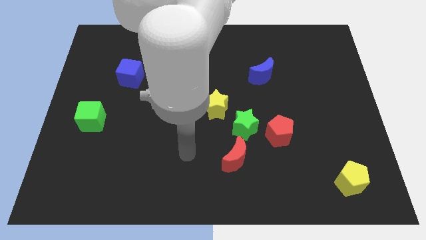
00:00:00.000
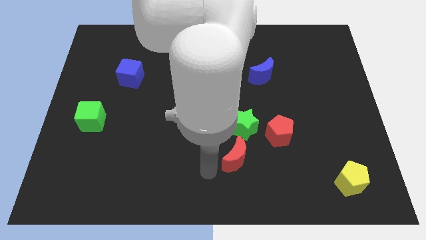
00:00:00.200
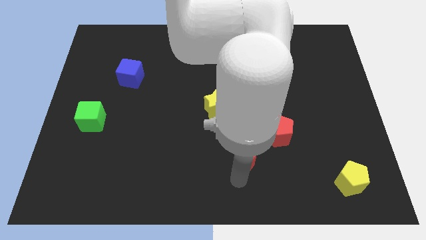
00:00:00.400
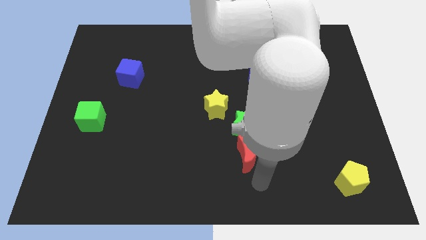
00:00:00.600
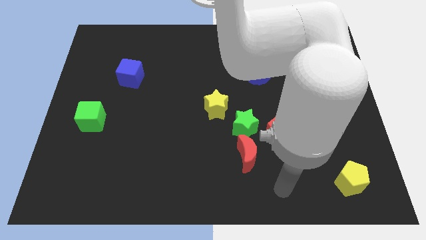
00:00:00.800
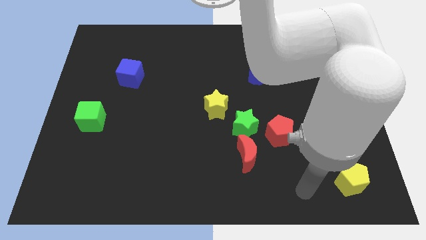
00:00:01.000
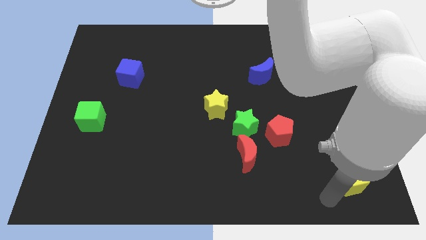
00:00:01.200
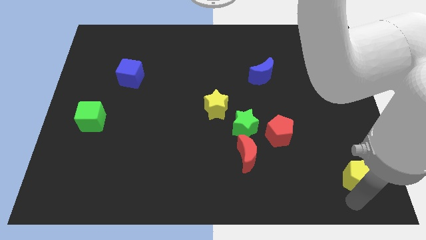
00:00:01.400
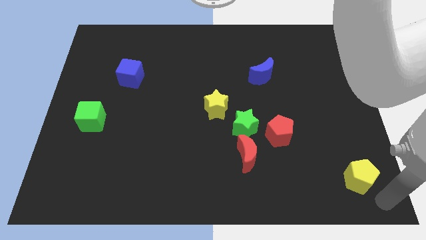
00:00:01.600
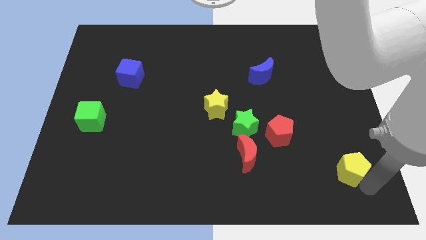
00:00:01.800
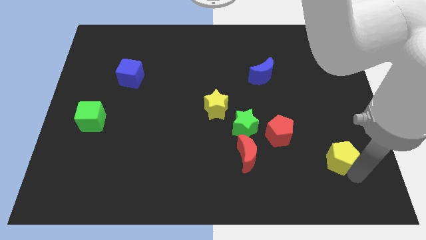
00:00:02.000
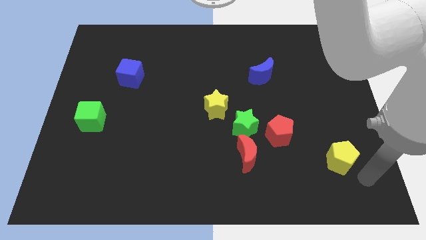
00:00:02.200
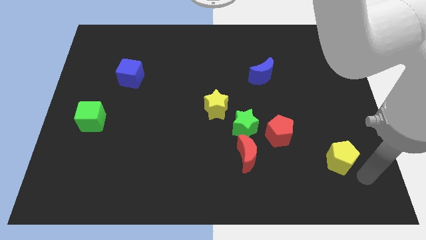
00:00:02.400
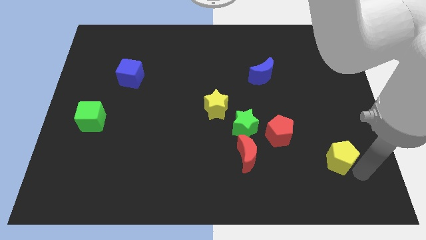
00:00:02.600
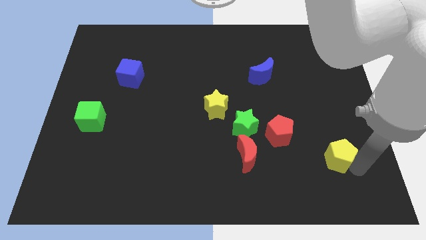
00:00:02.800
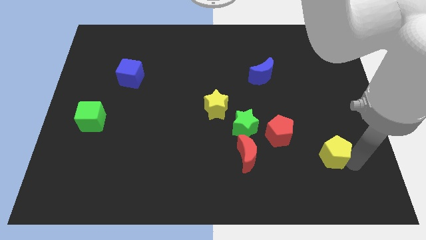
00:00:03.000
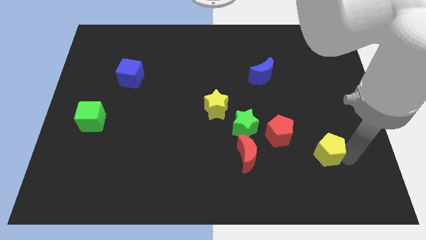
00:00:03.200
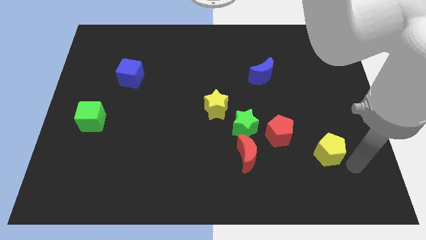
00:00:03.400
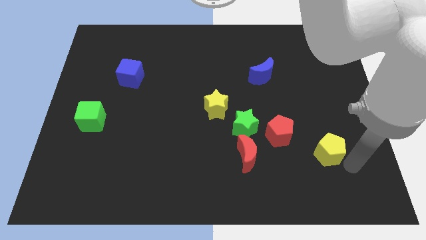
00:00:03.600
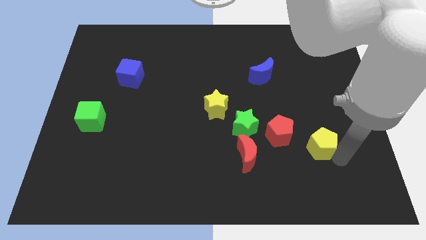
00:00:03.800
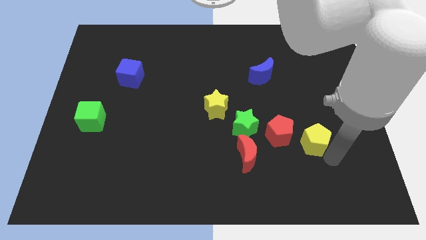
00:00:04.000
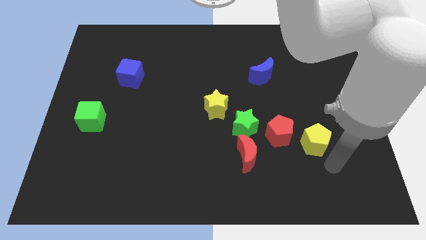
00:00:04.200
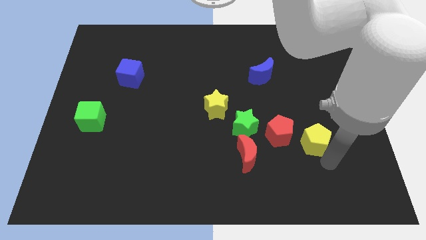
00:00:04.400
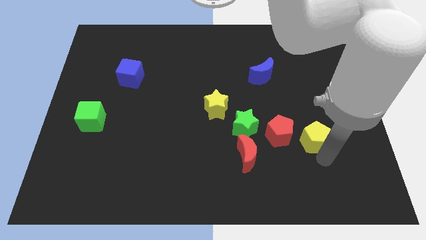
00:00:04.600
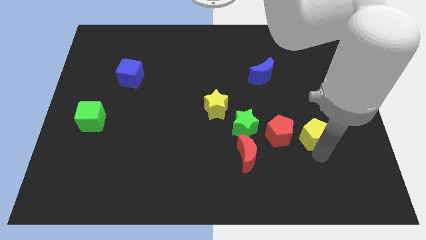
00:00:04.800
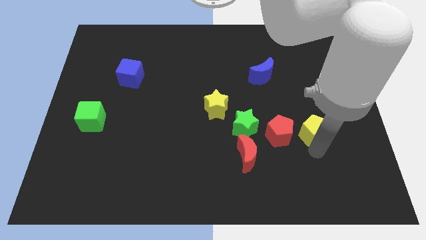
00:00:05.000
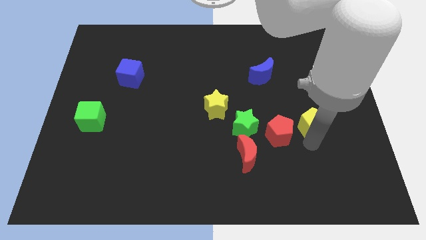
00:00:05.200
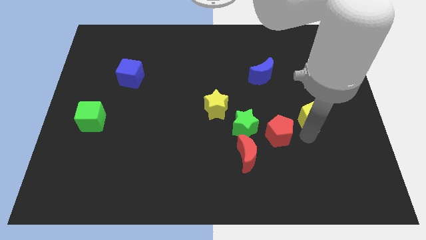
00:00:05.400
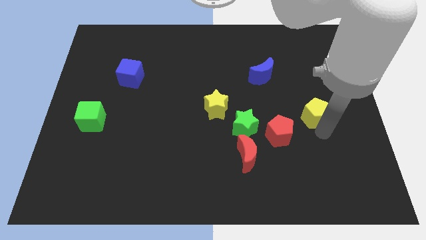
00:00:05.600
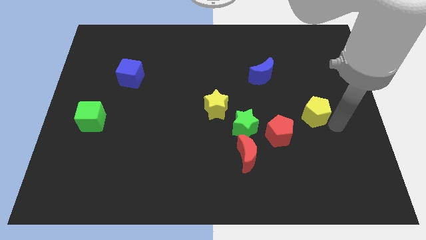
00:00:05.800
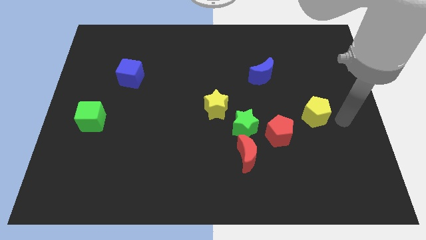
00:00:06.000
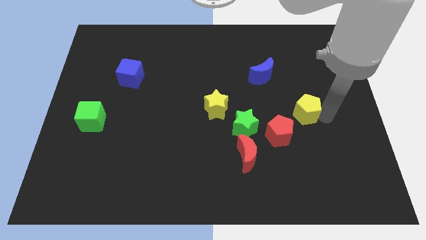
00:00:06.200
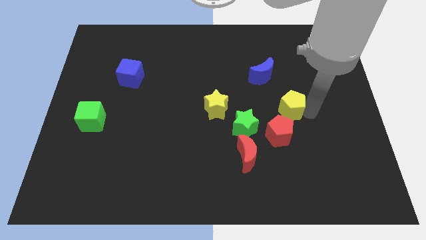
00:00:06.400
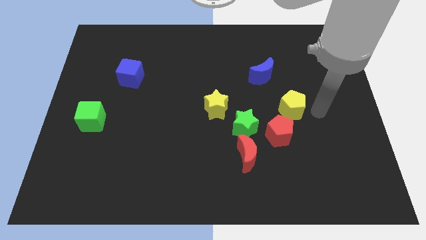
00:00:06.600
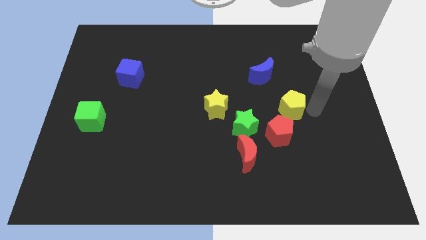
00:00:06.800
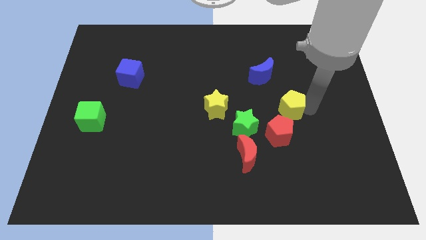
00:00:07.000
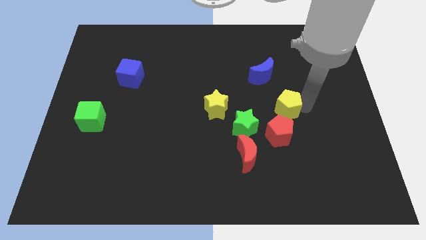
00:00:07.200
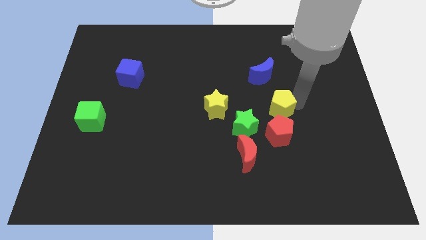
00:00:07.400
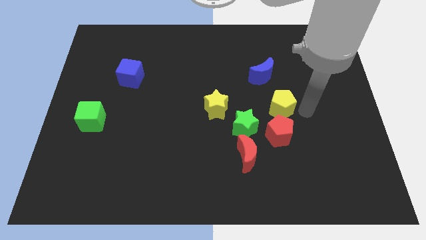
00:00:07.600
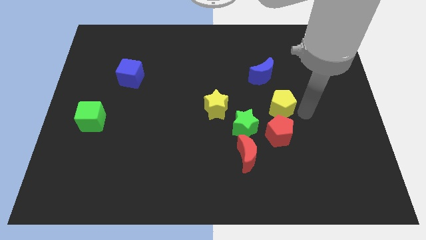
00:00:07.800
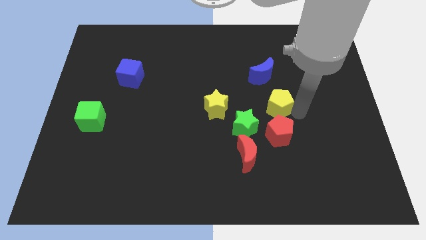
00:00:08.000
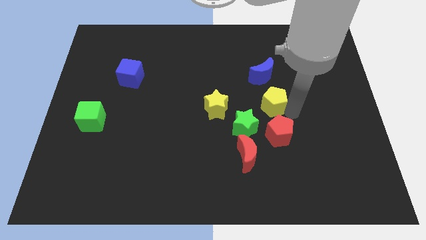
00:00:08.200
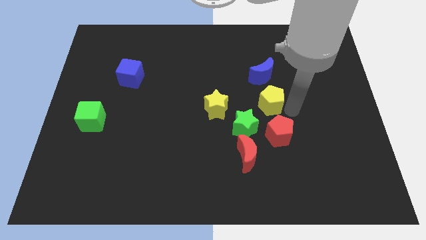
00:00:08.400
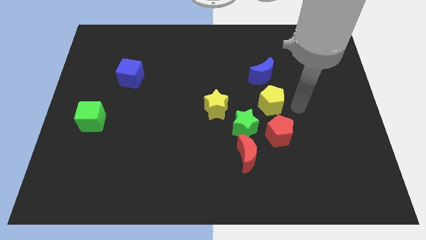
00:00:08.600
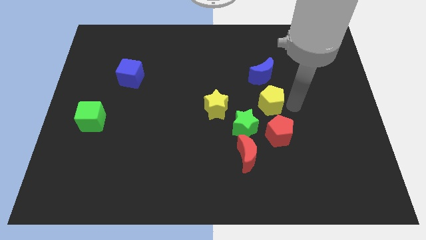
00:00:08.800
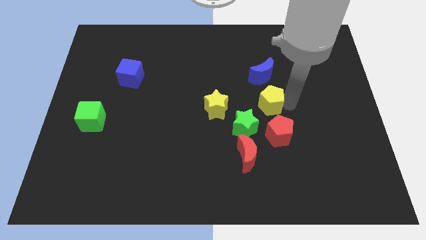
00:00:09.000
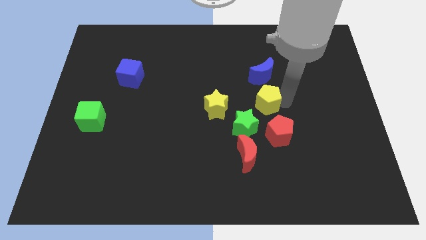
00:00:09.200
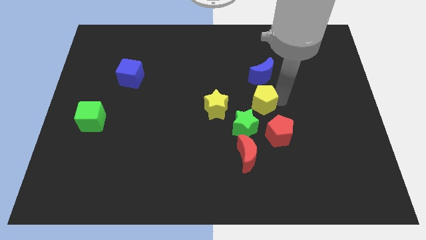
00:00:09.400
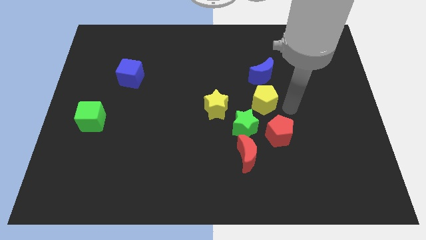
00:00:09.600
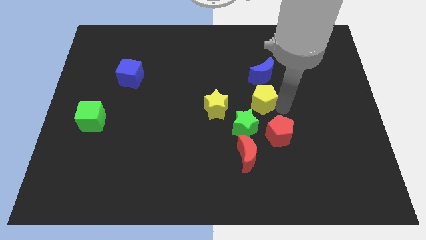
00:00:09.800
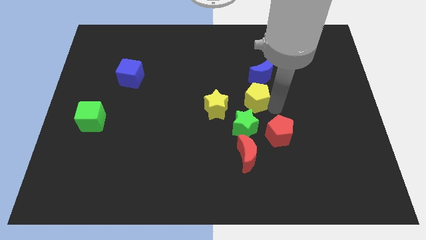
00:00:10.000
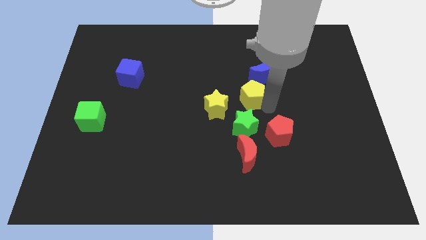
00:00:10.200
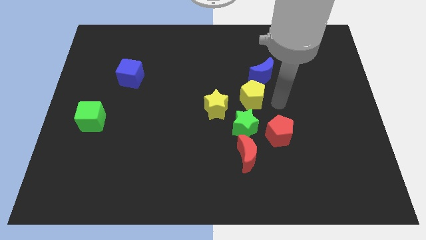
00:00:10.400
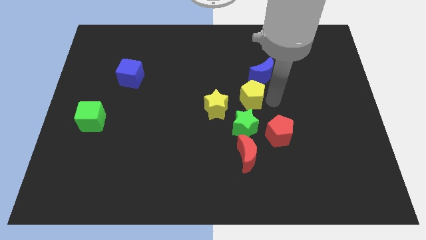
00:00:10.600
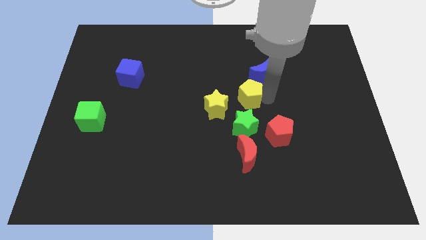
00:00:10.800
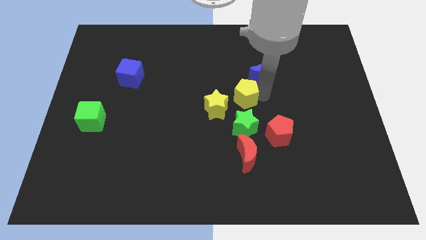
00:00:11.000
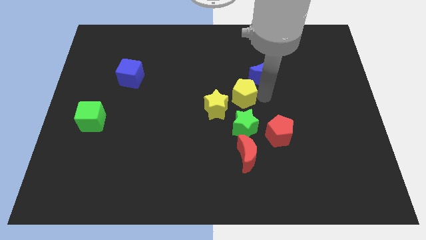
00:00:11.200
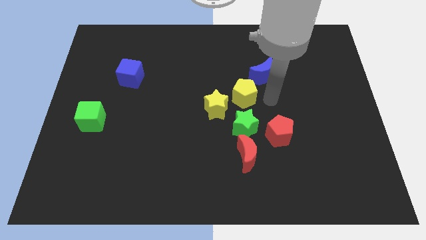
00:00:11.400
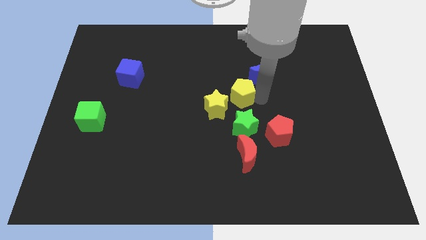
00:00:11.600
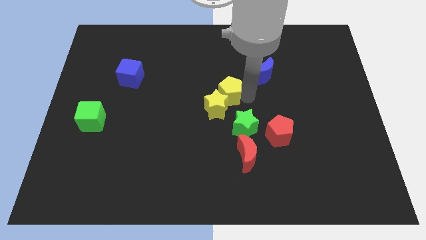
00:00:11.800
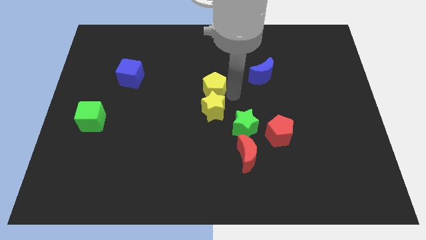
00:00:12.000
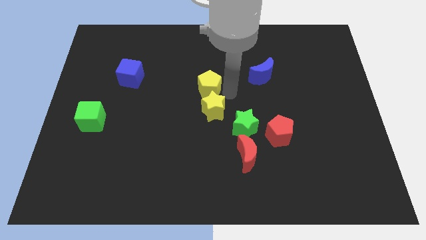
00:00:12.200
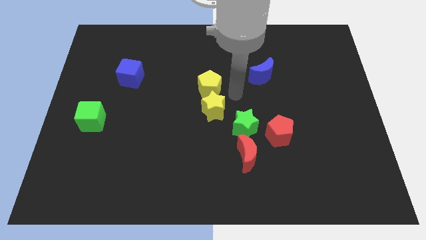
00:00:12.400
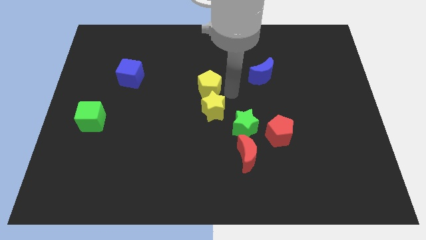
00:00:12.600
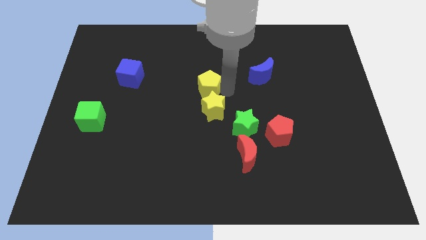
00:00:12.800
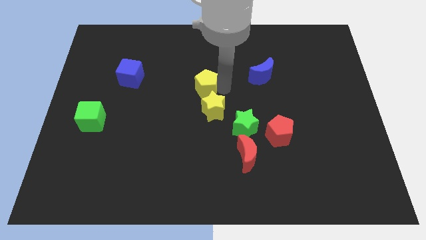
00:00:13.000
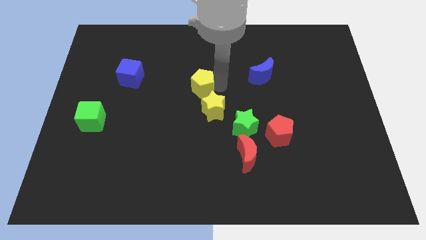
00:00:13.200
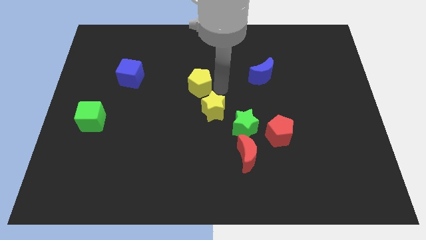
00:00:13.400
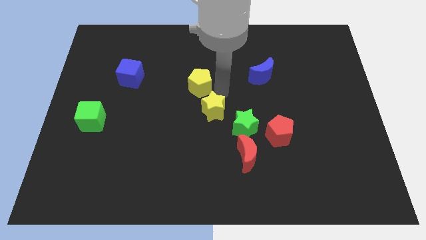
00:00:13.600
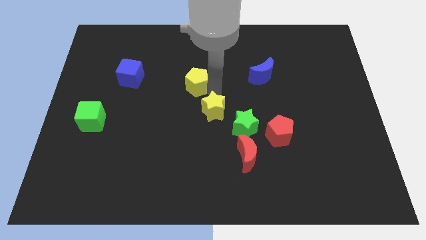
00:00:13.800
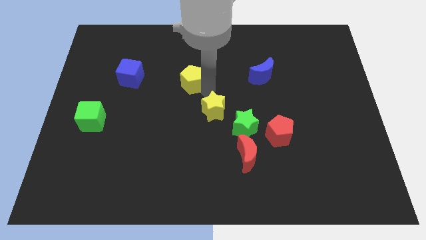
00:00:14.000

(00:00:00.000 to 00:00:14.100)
put the yellow pentagon to the right of the blue cube
